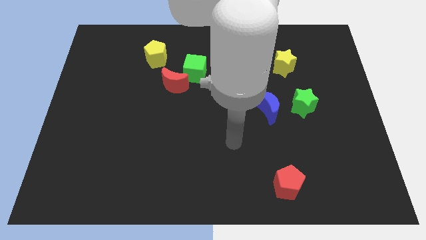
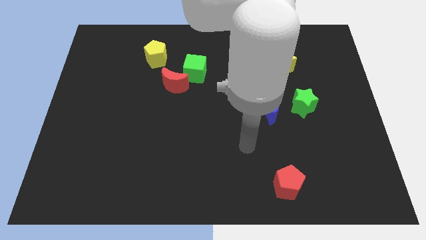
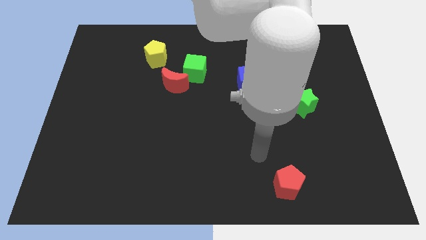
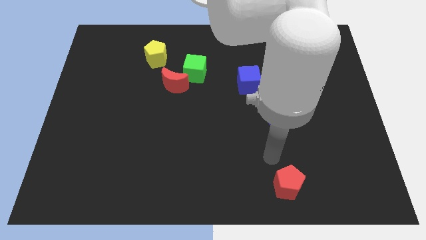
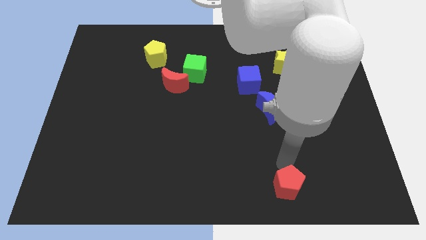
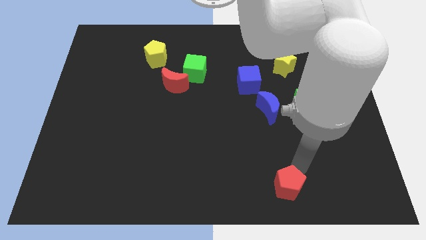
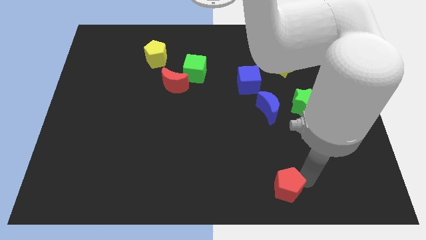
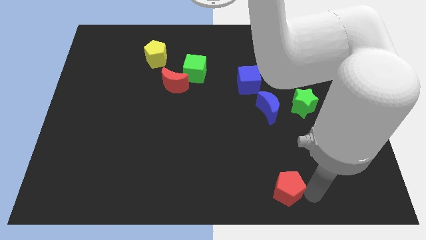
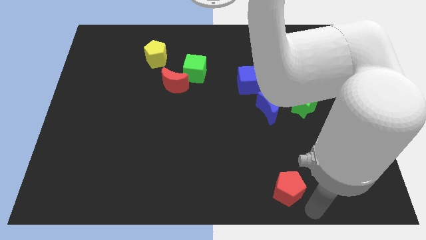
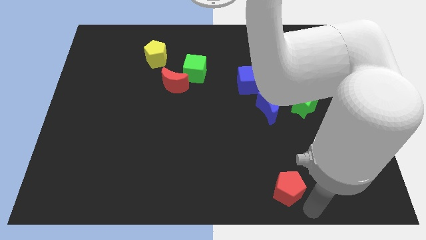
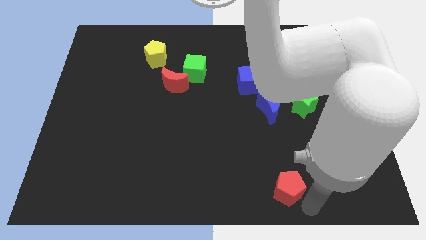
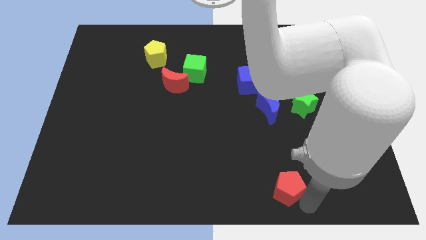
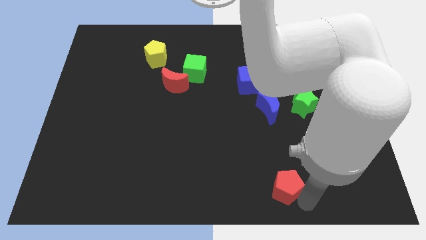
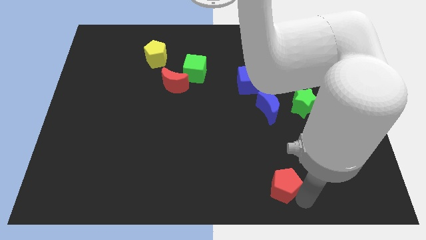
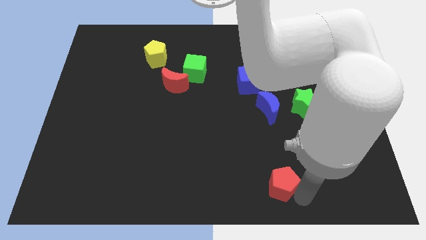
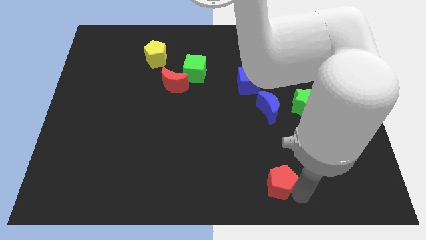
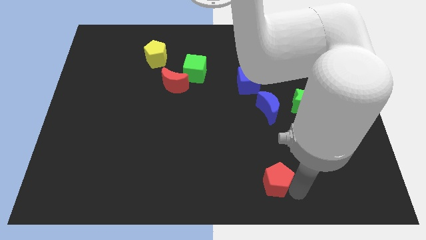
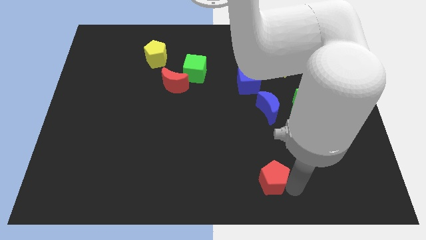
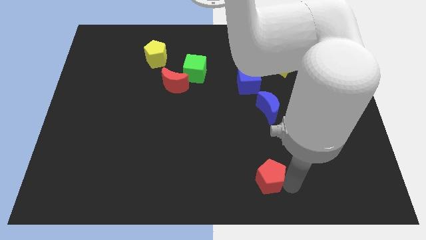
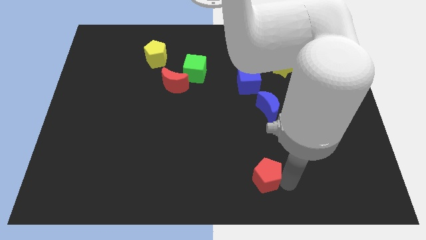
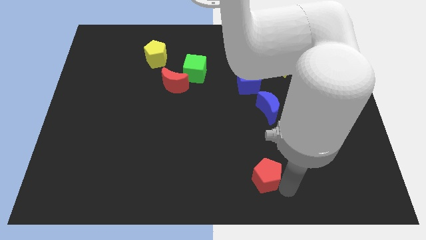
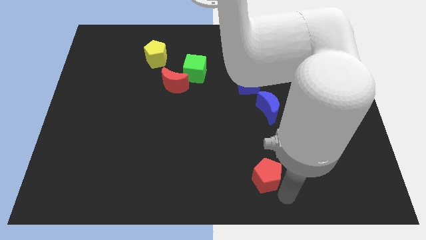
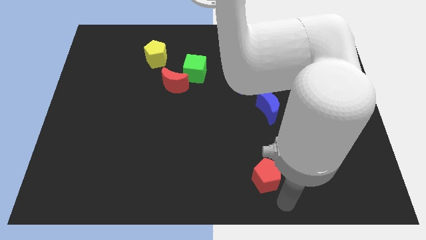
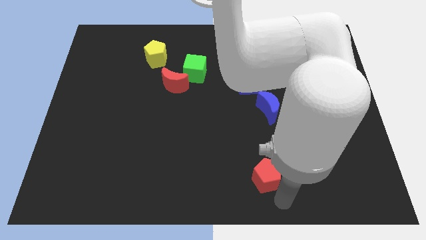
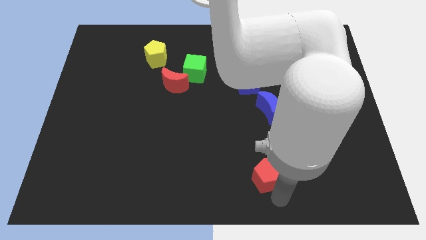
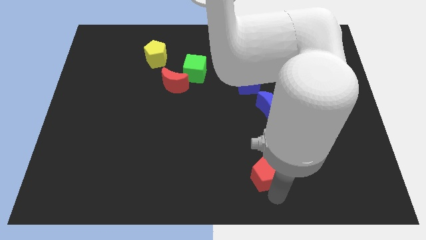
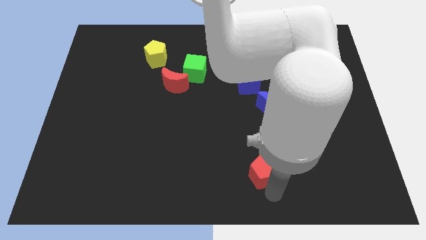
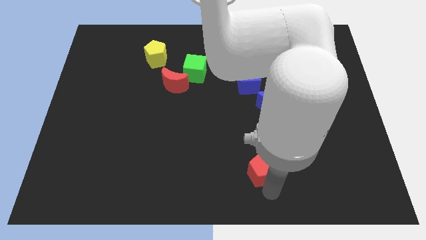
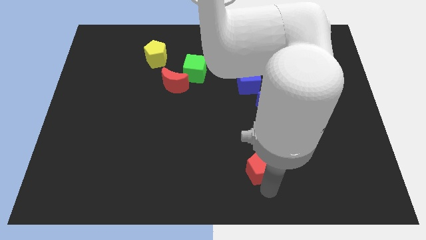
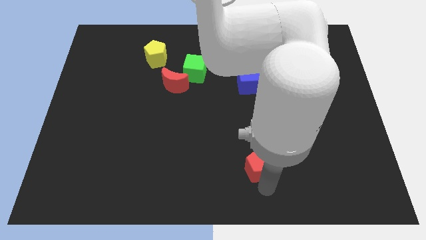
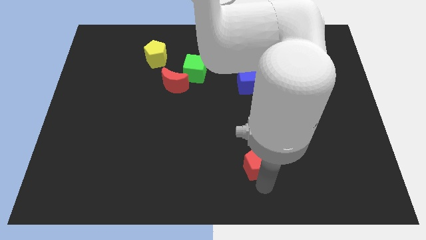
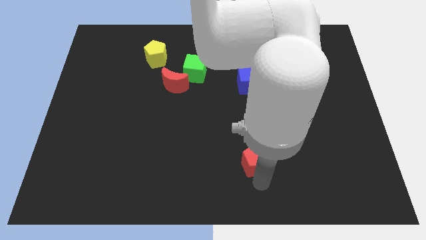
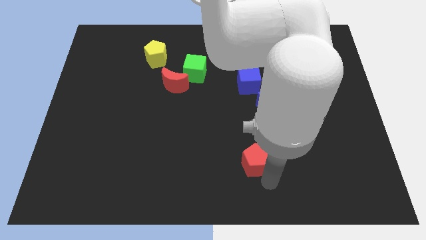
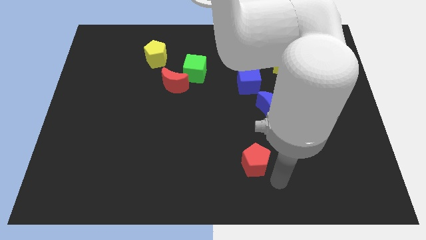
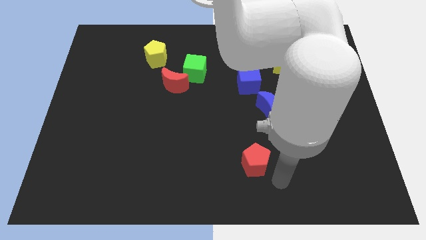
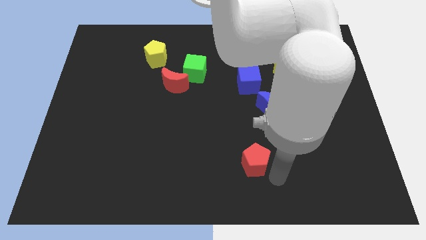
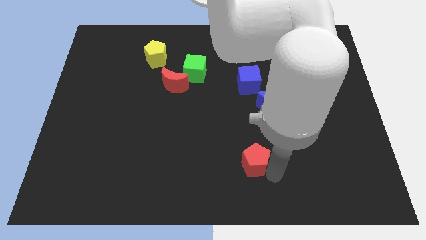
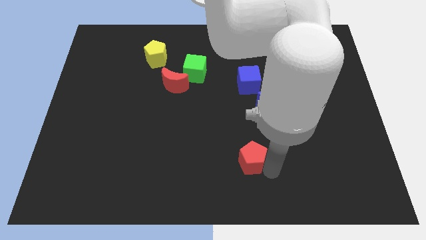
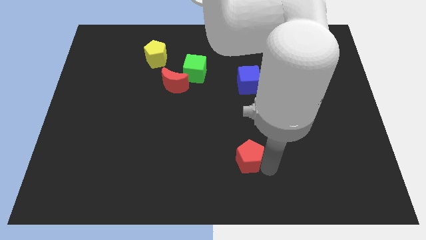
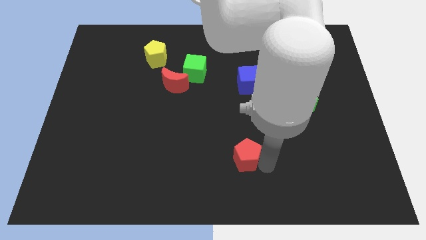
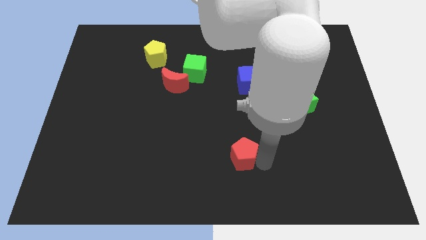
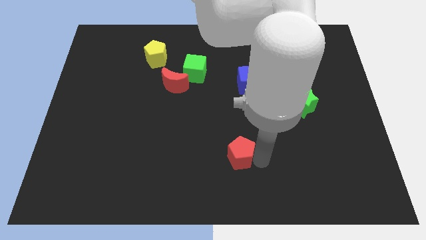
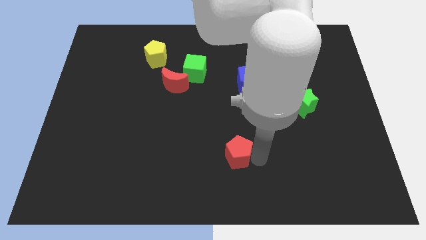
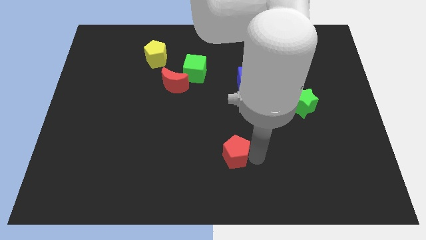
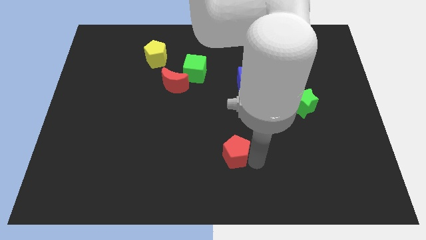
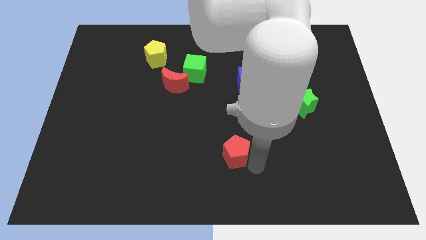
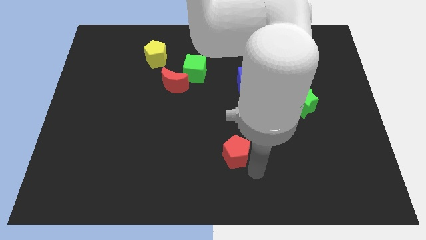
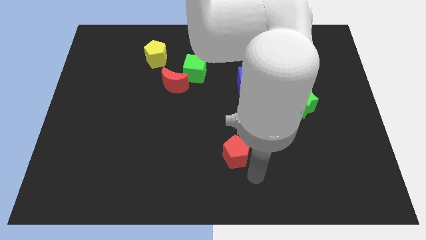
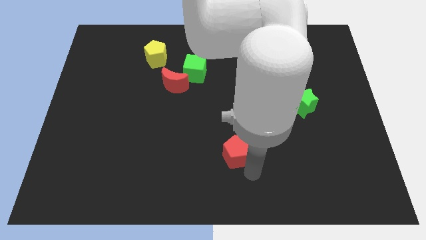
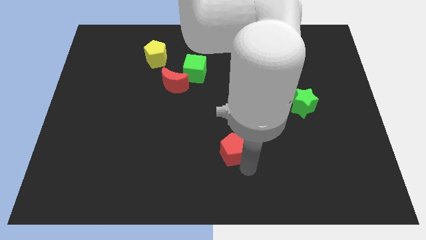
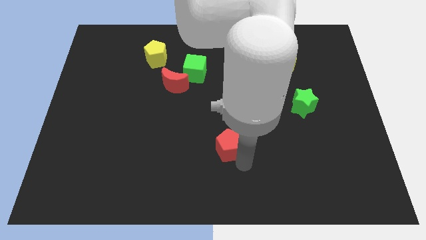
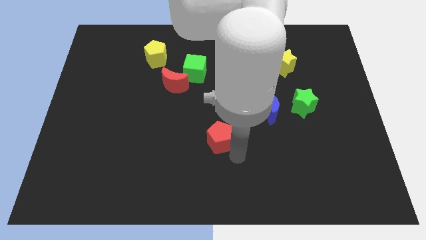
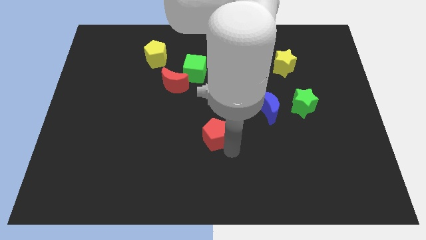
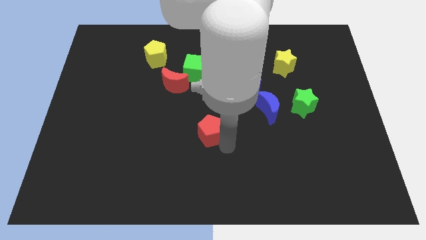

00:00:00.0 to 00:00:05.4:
push the red pentagon up and then left

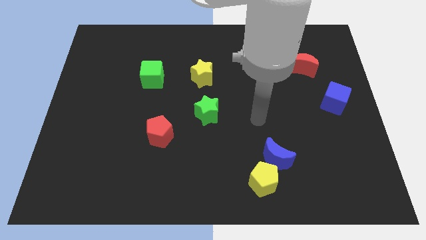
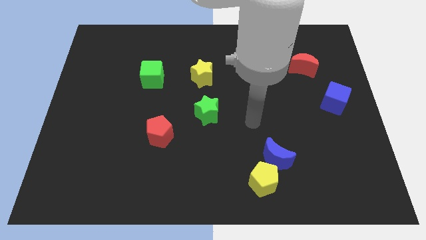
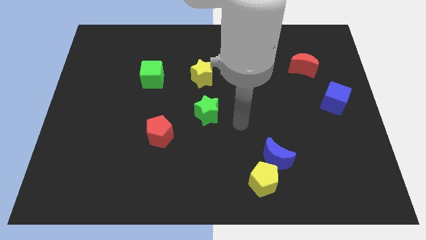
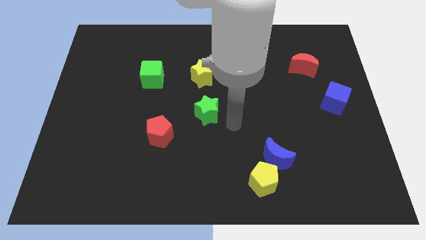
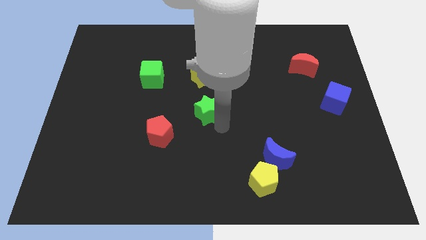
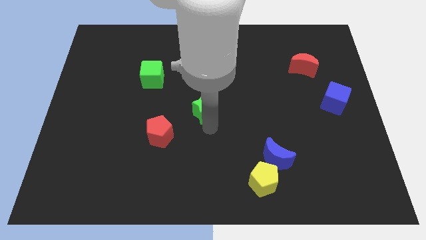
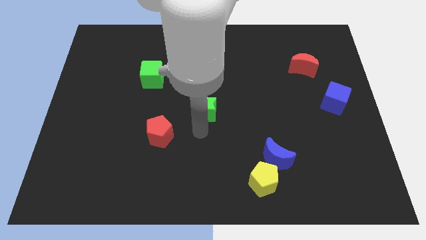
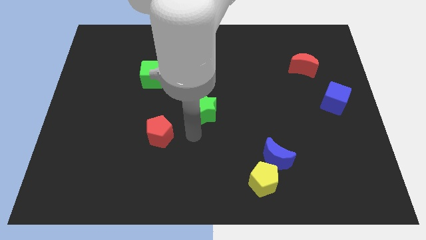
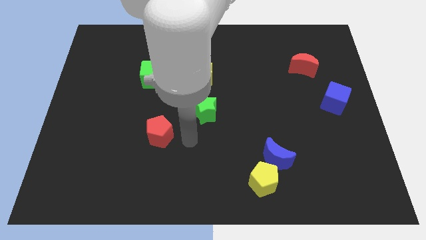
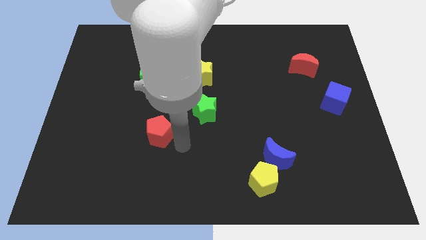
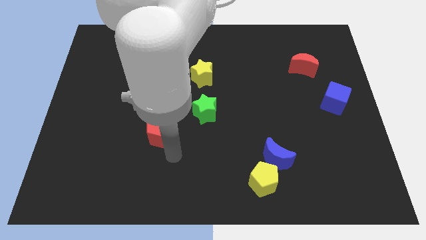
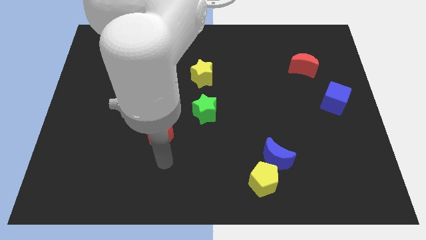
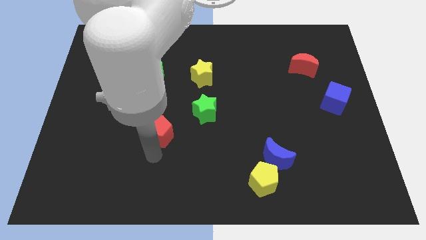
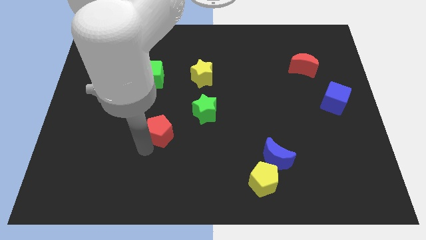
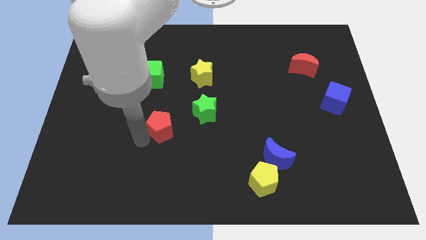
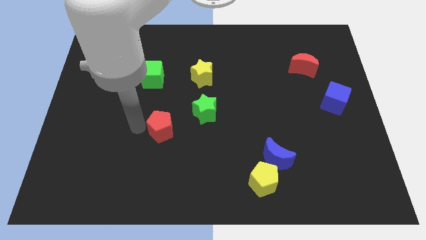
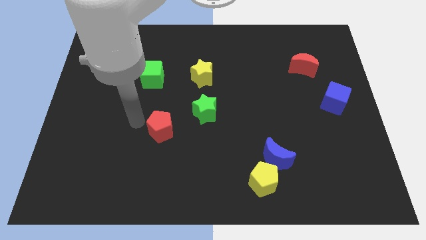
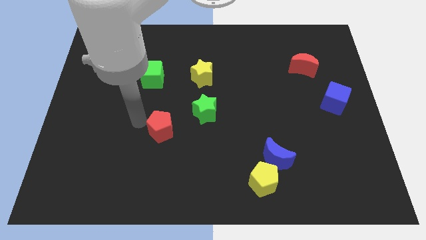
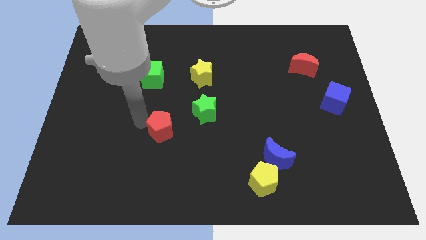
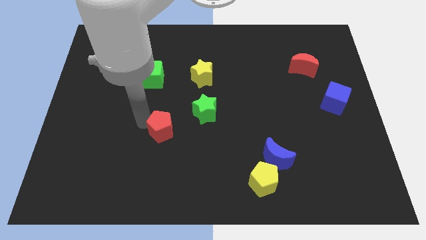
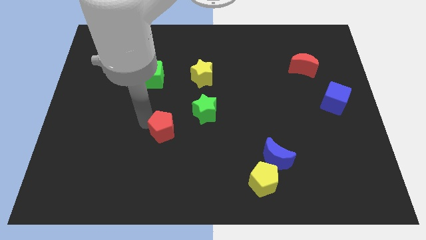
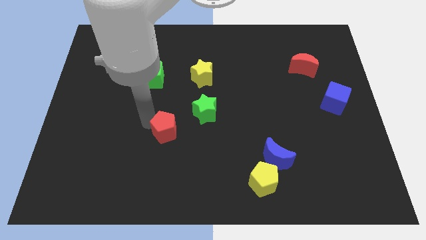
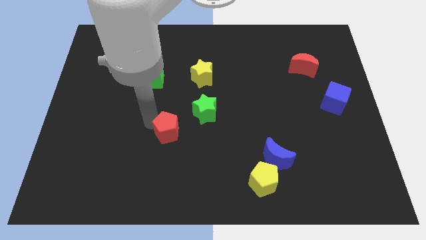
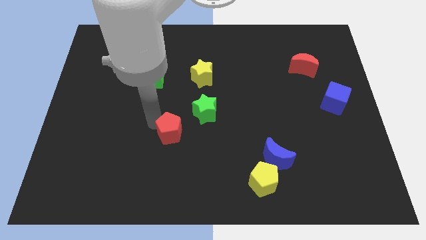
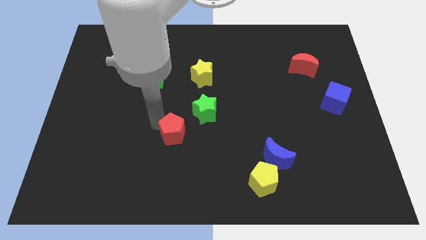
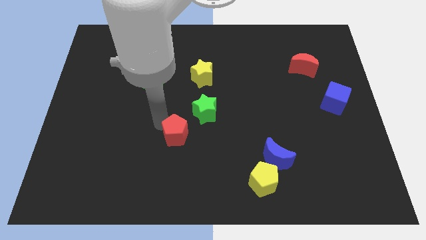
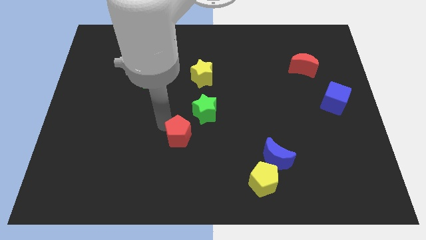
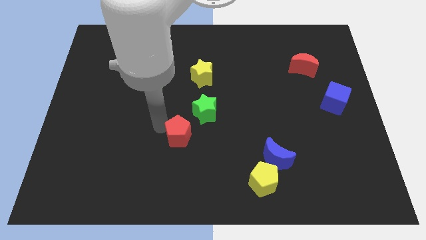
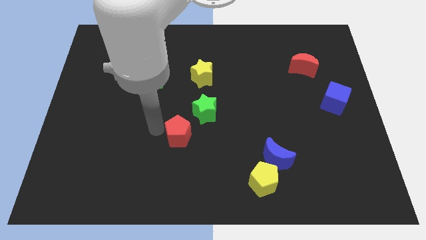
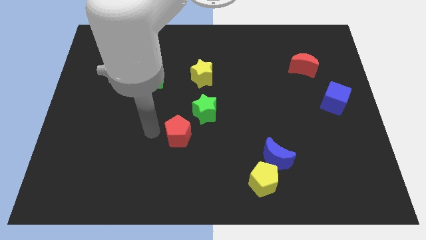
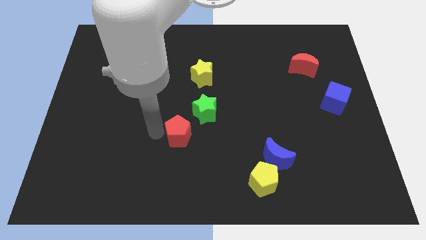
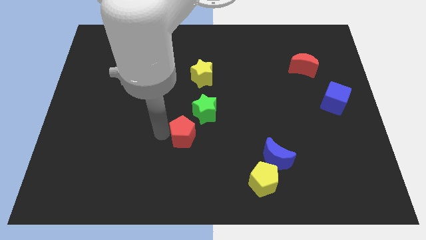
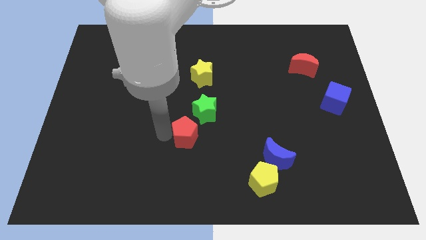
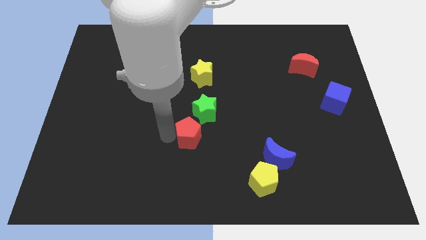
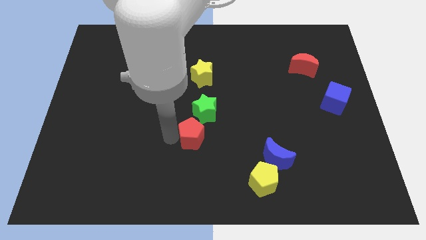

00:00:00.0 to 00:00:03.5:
move the red pentagon a little to the right
